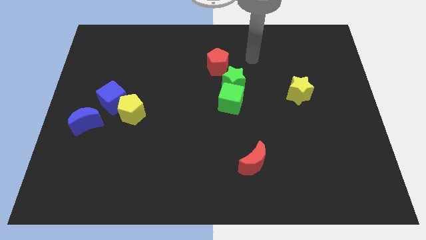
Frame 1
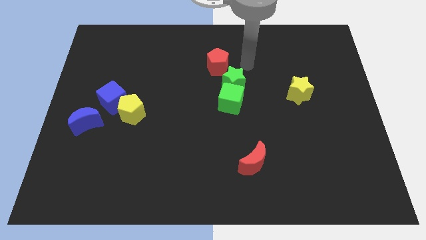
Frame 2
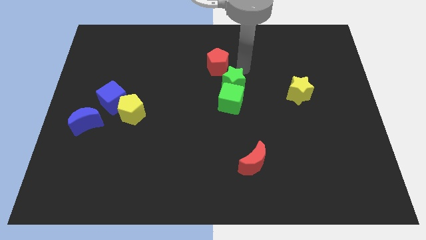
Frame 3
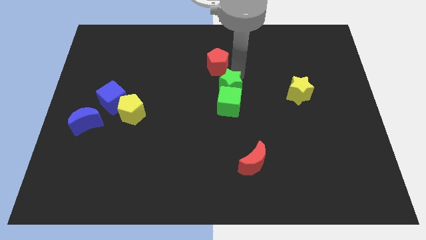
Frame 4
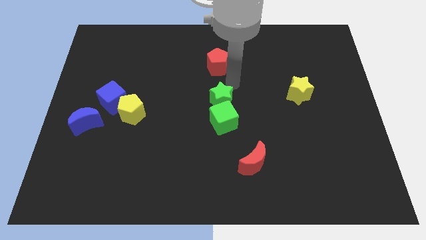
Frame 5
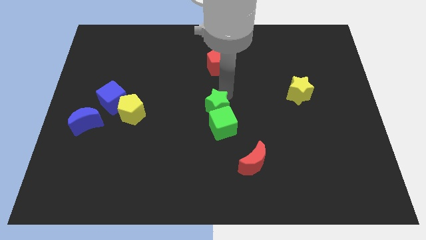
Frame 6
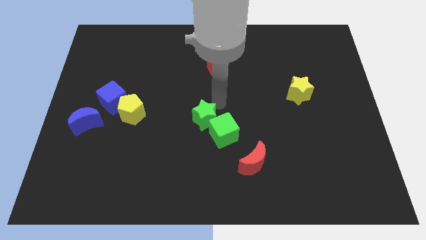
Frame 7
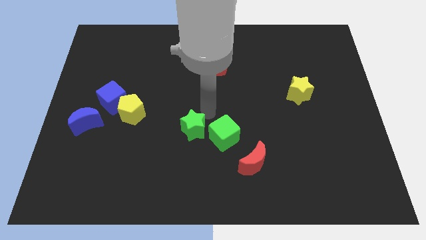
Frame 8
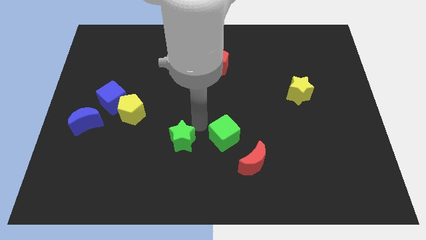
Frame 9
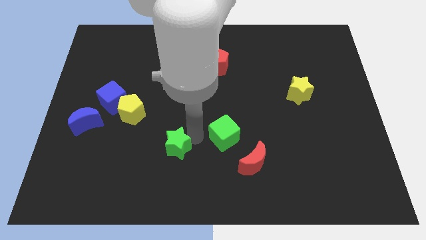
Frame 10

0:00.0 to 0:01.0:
move the green cube away from the green star

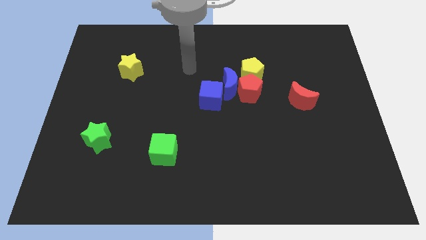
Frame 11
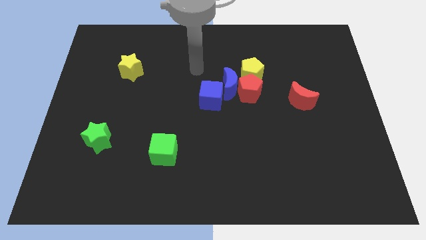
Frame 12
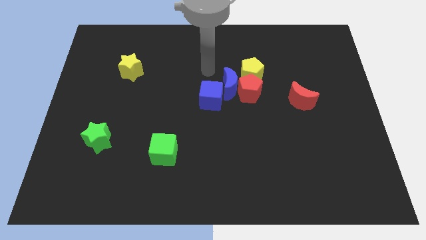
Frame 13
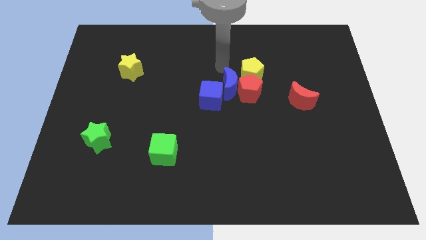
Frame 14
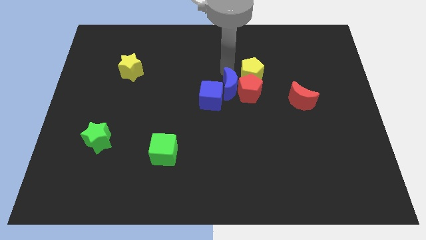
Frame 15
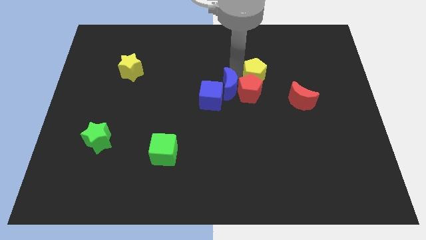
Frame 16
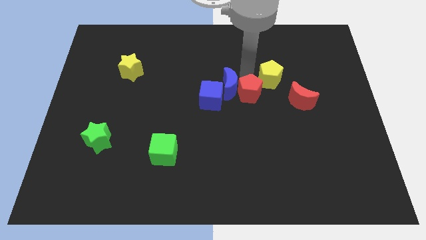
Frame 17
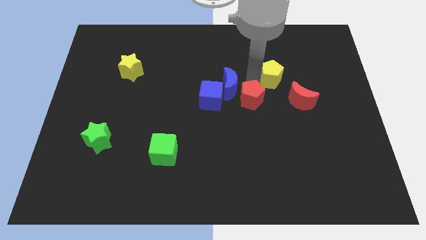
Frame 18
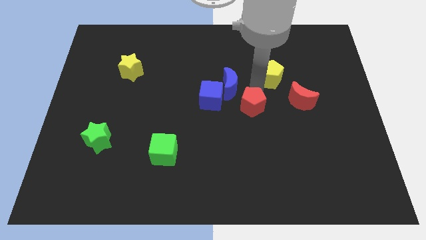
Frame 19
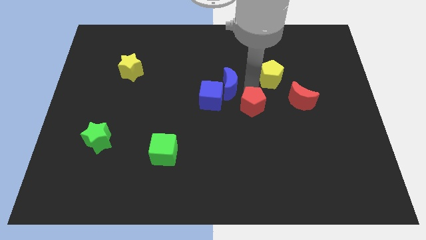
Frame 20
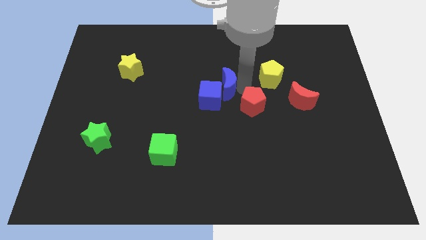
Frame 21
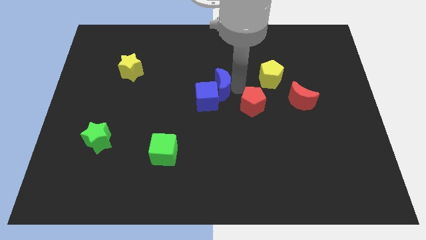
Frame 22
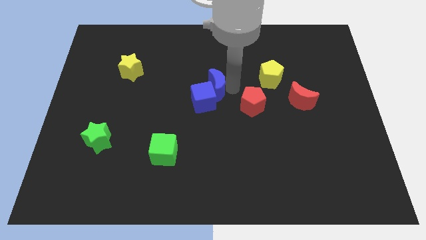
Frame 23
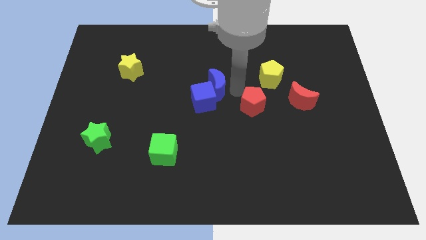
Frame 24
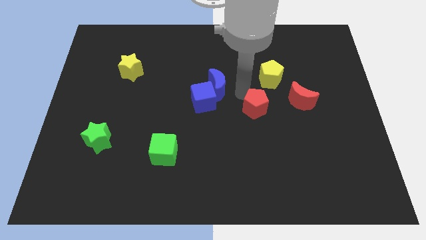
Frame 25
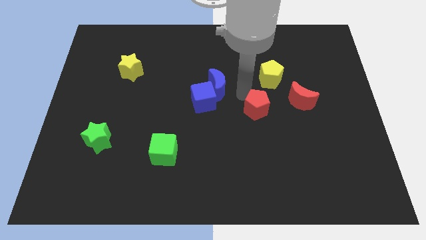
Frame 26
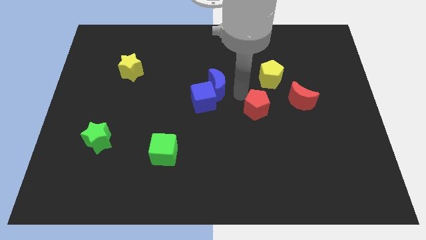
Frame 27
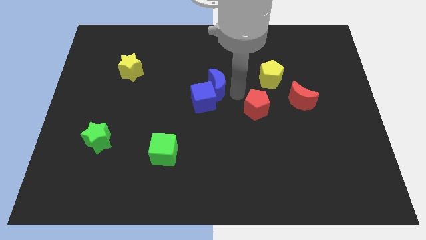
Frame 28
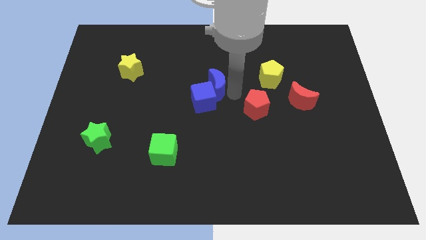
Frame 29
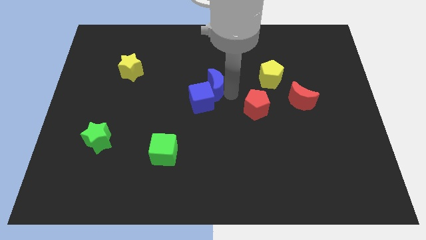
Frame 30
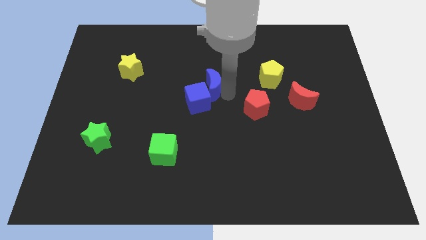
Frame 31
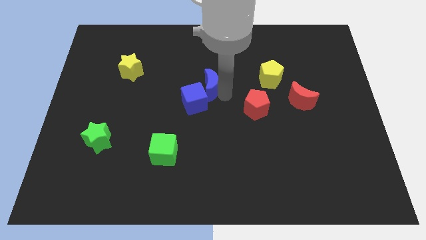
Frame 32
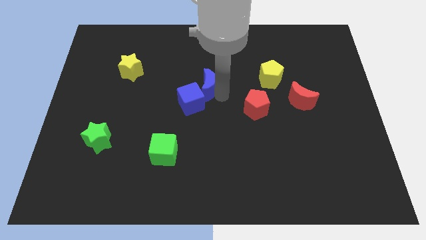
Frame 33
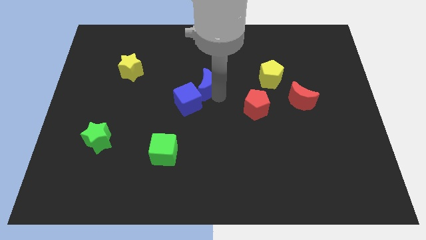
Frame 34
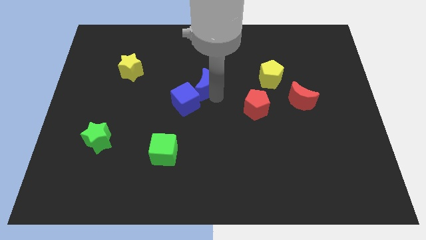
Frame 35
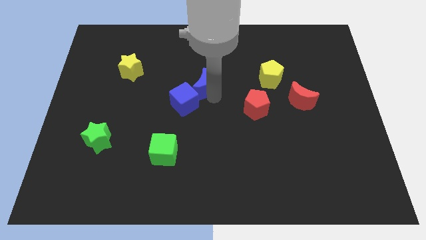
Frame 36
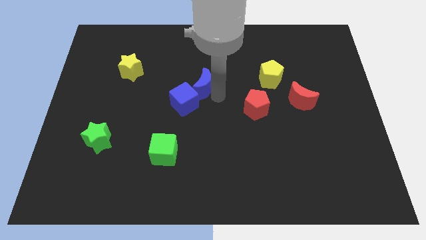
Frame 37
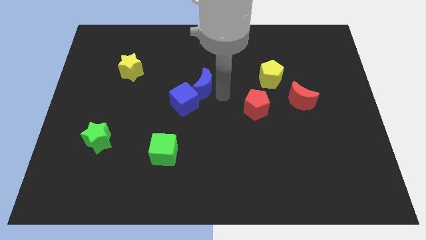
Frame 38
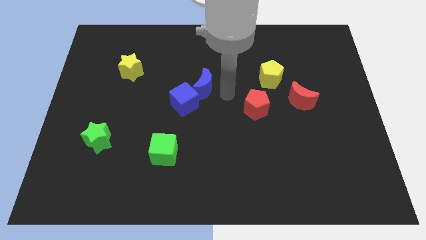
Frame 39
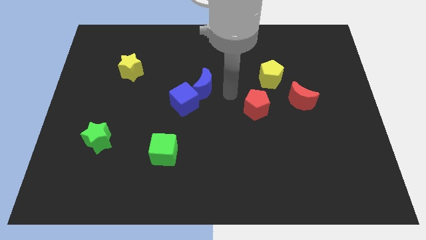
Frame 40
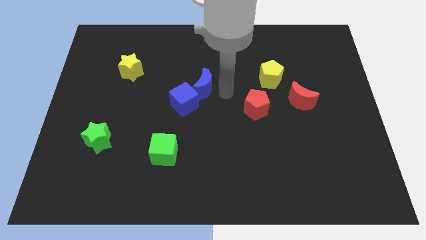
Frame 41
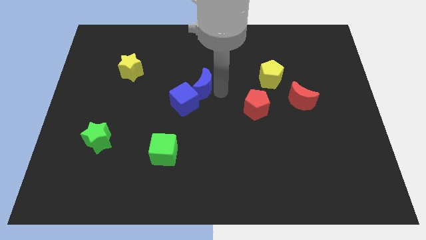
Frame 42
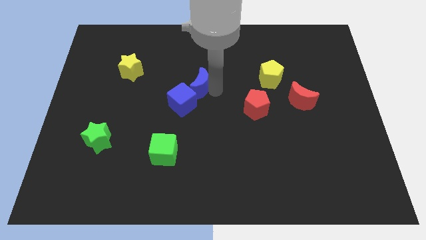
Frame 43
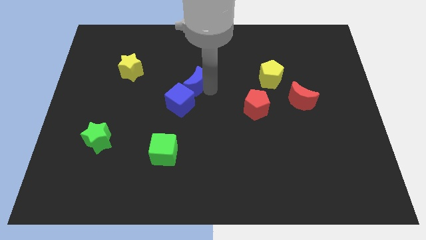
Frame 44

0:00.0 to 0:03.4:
separate the blue moon from the red pentagon, blue cube, and yellow pentagon

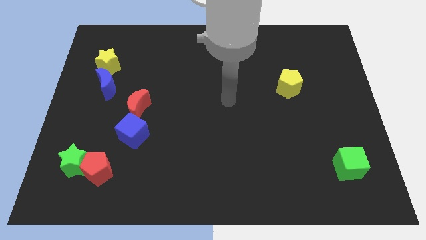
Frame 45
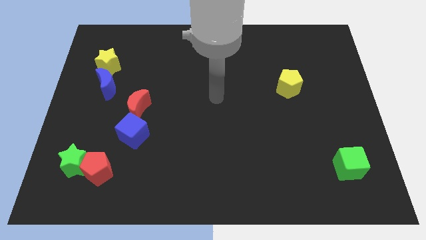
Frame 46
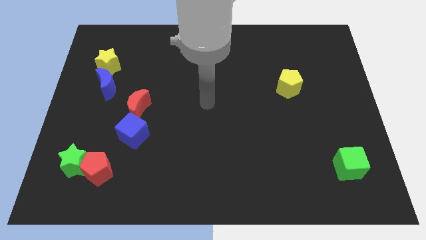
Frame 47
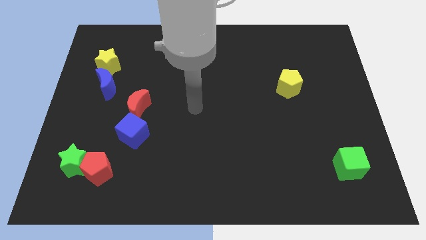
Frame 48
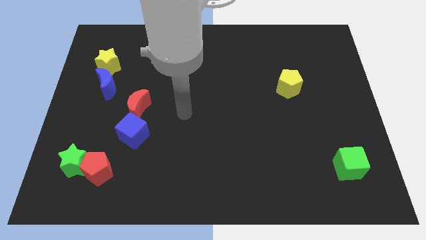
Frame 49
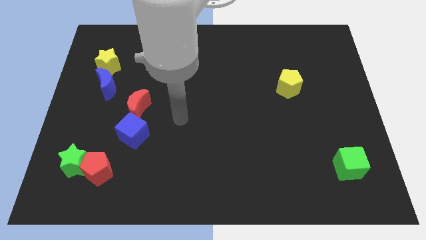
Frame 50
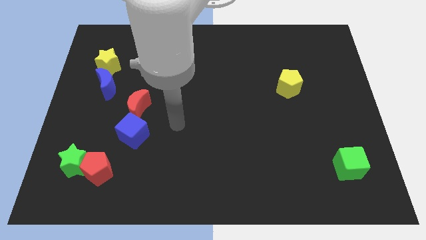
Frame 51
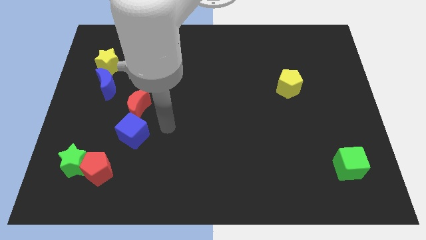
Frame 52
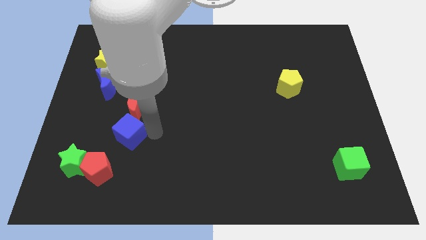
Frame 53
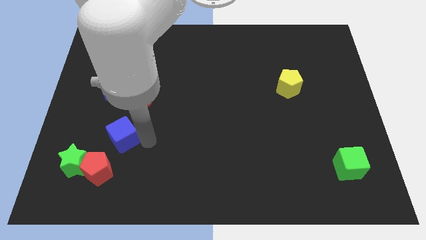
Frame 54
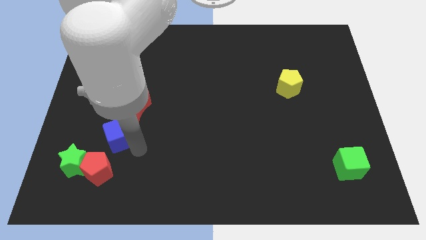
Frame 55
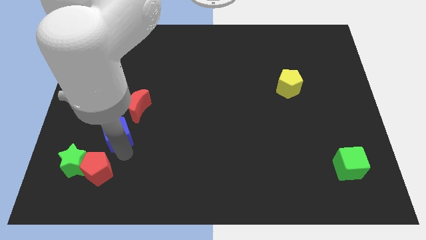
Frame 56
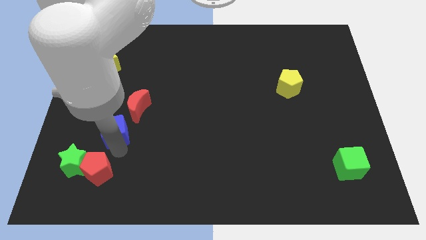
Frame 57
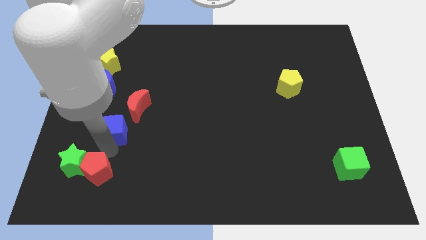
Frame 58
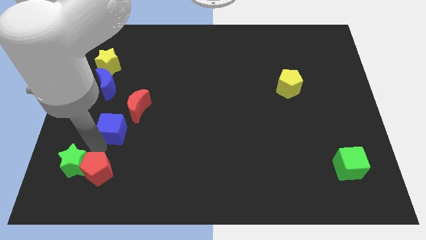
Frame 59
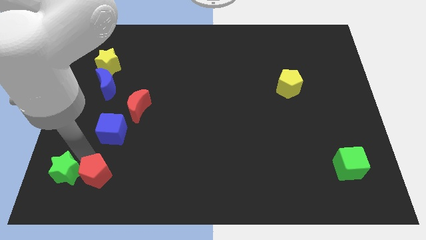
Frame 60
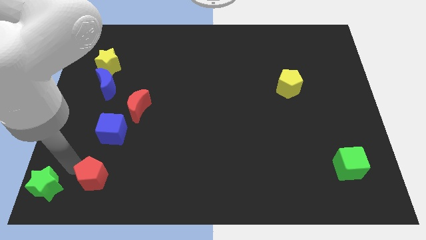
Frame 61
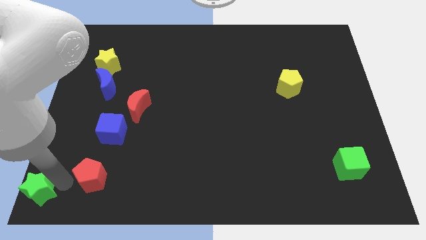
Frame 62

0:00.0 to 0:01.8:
pull the red pentagon apart from the green star

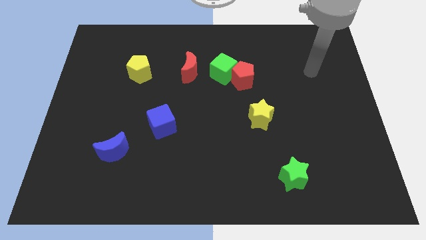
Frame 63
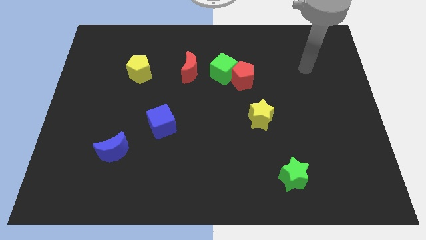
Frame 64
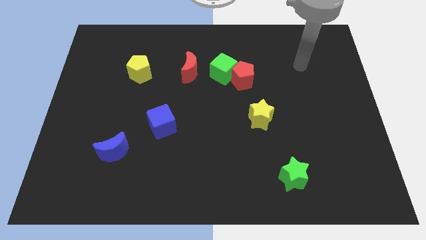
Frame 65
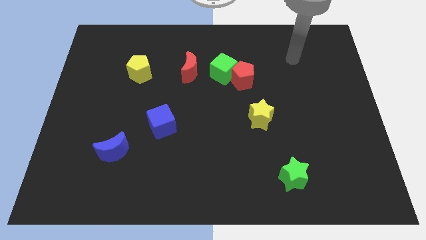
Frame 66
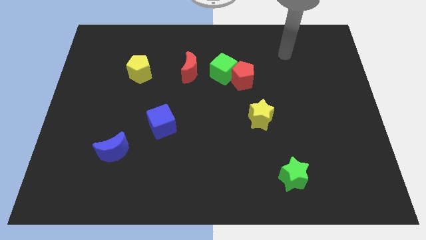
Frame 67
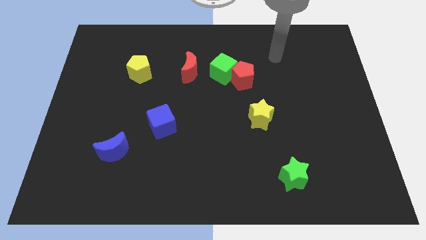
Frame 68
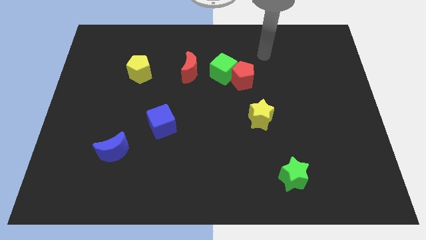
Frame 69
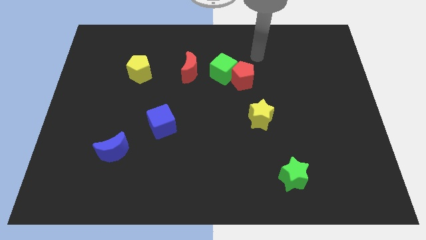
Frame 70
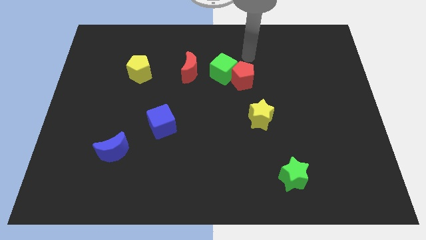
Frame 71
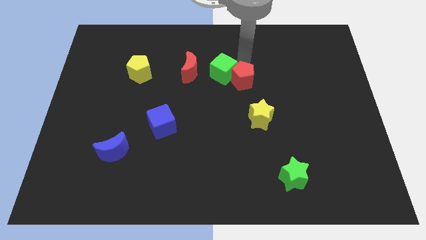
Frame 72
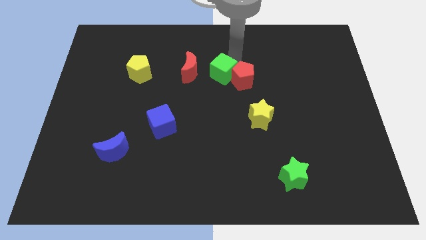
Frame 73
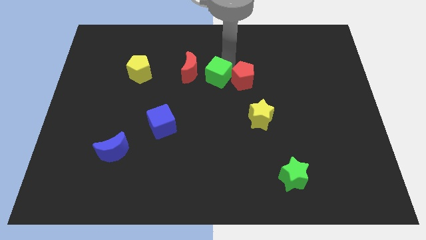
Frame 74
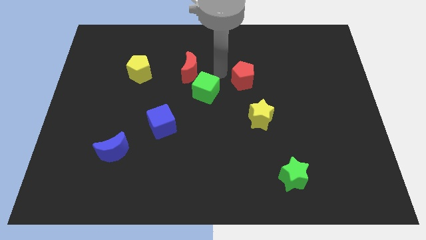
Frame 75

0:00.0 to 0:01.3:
separate the red pentagon from the green cube

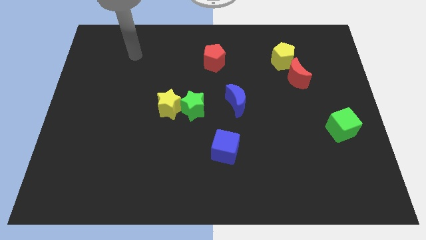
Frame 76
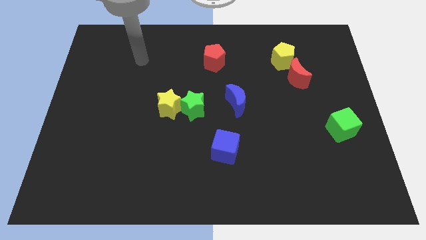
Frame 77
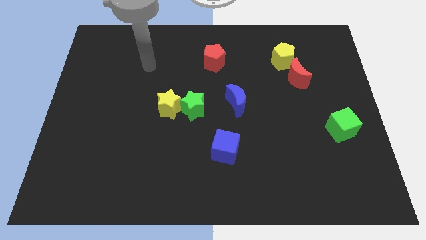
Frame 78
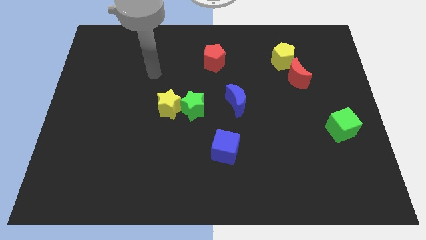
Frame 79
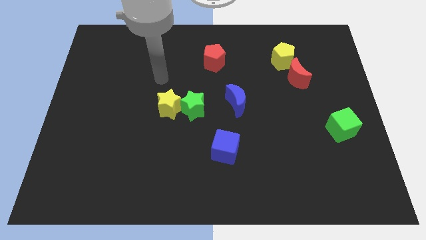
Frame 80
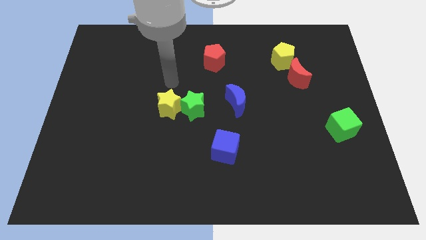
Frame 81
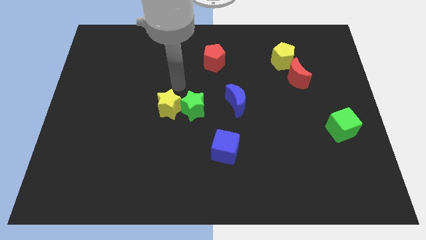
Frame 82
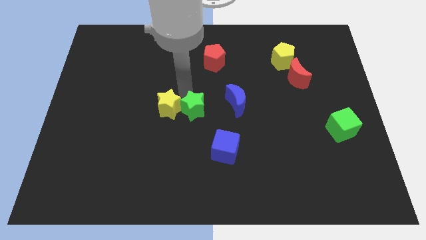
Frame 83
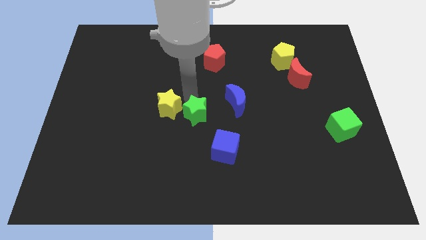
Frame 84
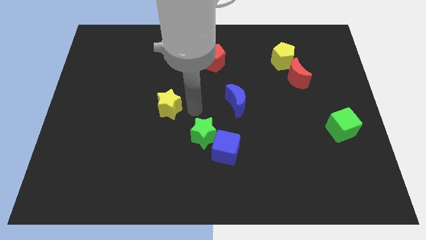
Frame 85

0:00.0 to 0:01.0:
move the yellow star away from the green star

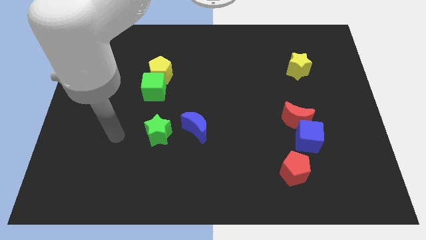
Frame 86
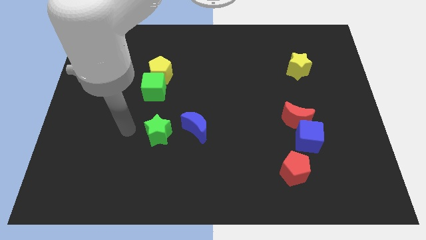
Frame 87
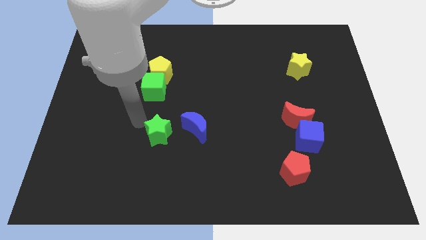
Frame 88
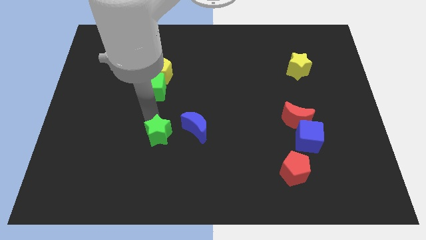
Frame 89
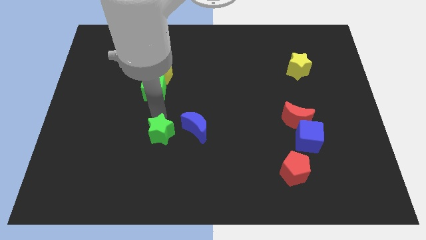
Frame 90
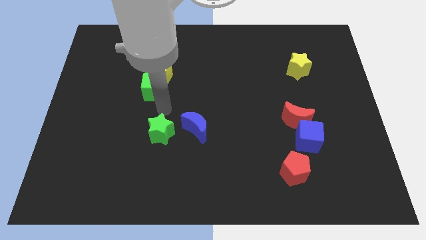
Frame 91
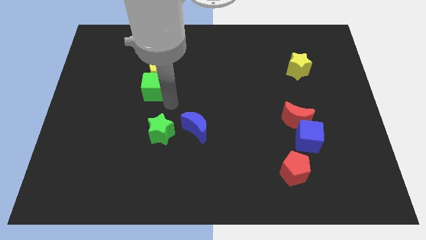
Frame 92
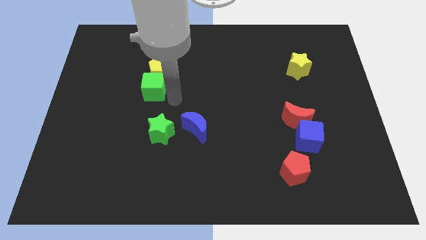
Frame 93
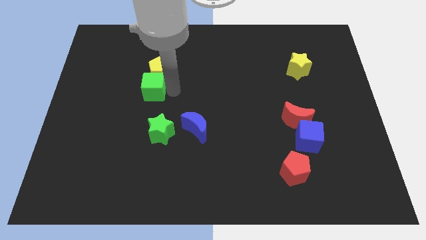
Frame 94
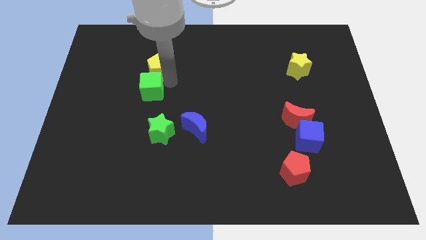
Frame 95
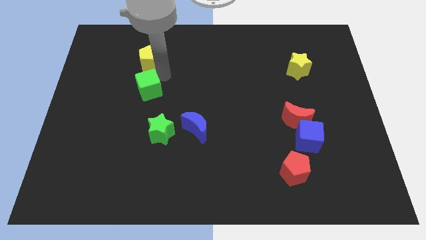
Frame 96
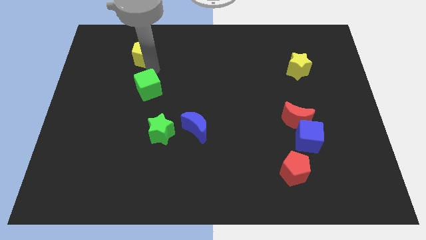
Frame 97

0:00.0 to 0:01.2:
pull the green cube apart from the yellow pentagon
